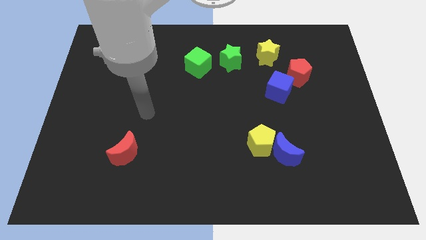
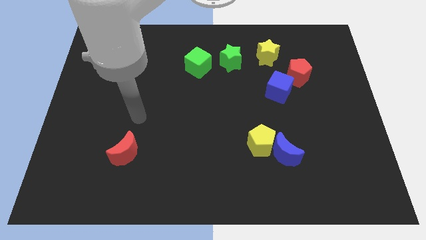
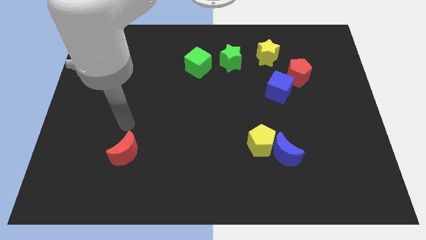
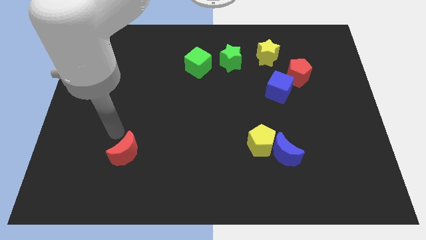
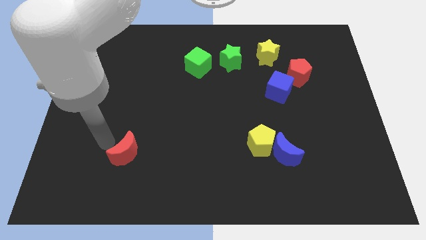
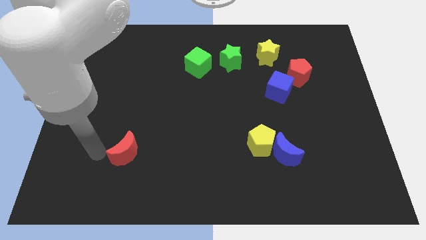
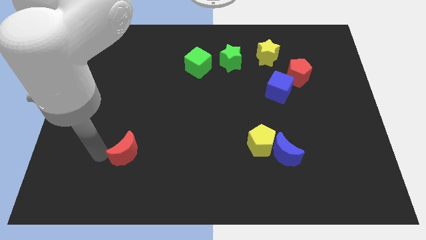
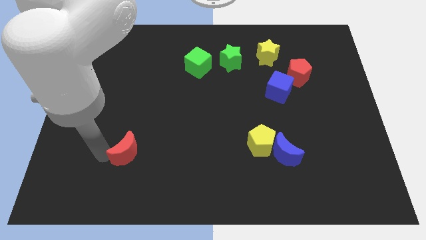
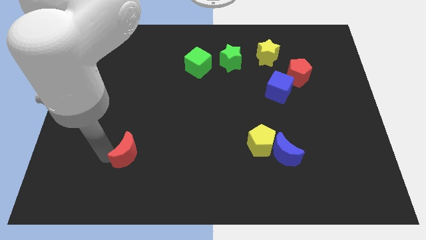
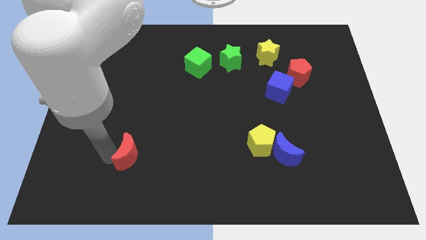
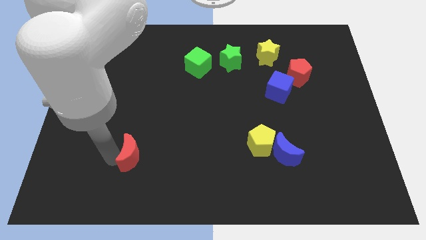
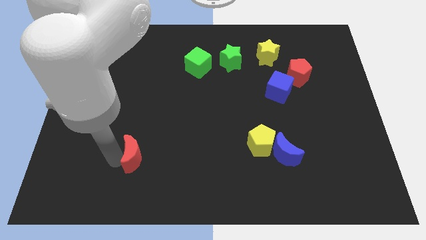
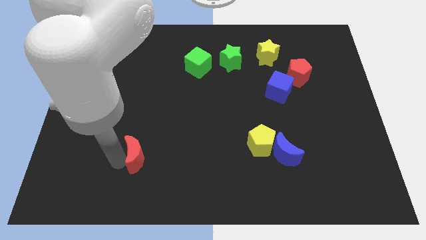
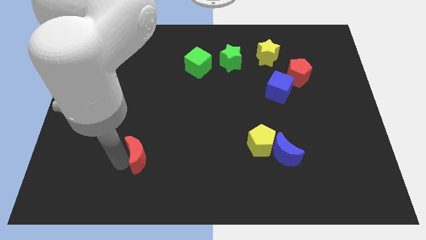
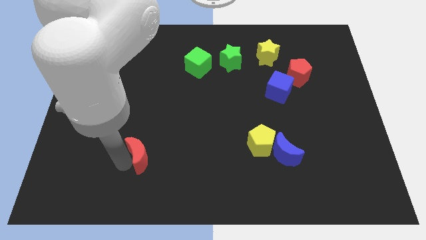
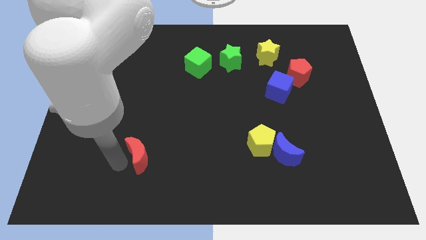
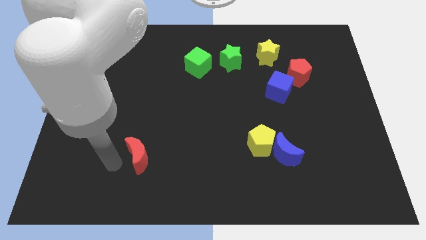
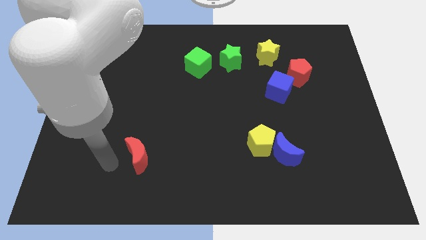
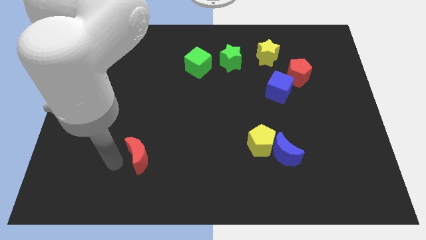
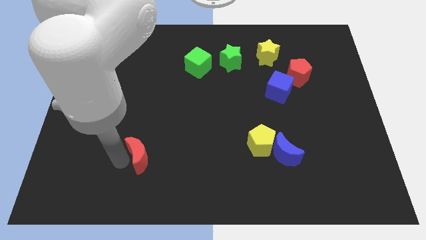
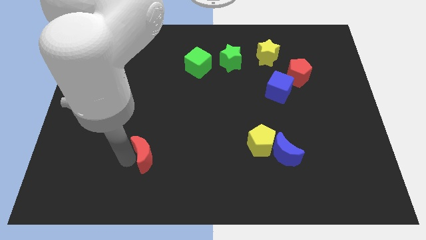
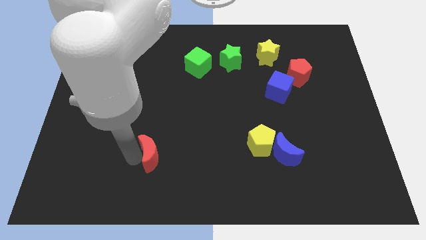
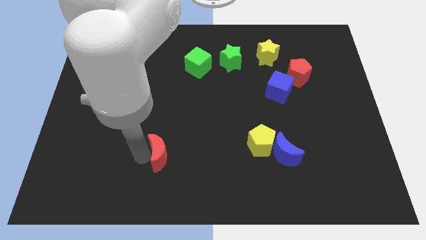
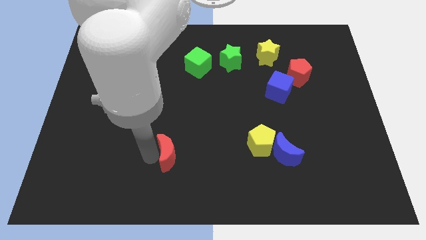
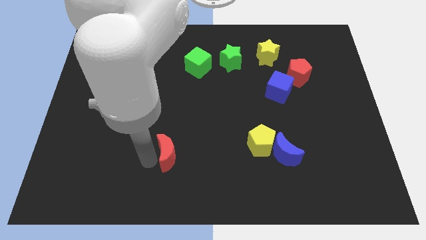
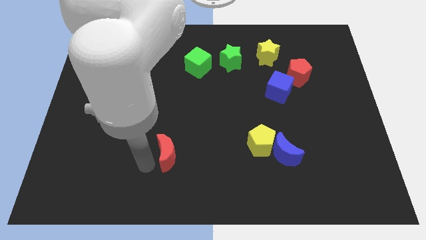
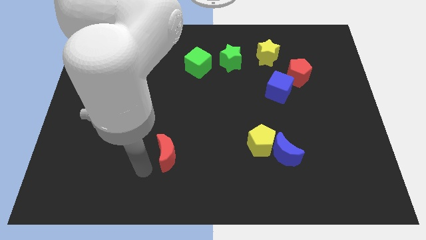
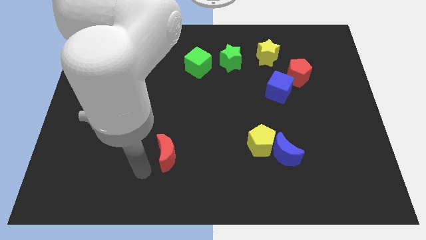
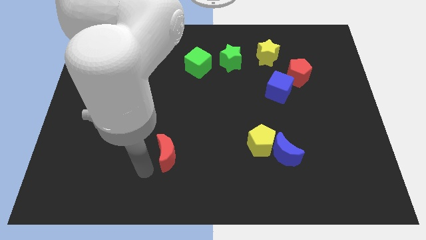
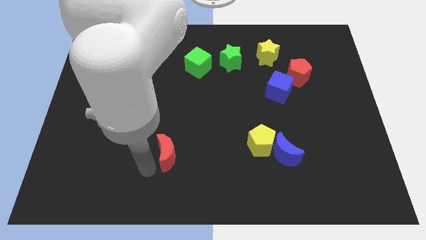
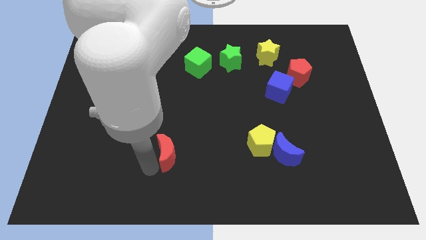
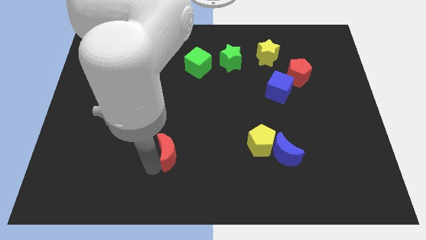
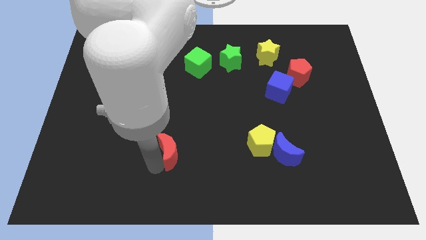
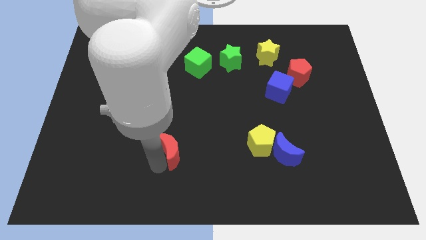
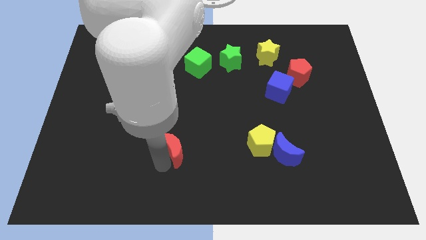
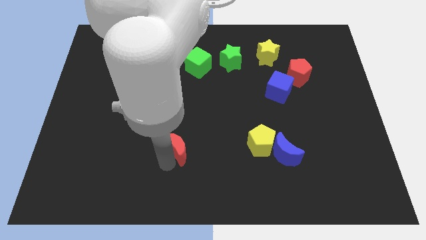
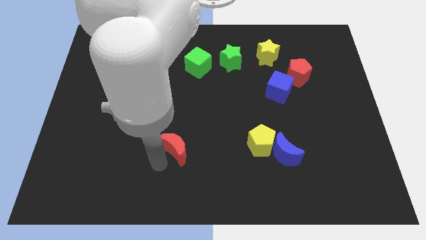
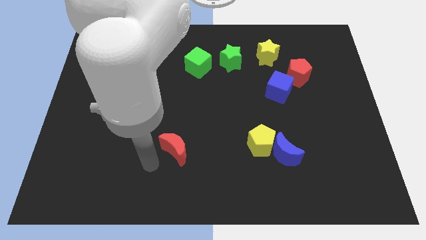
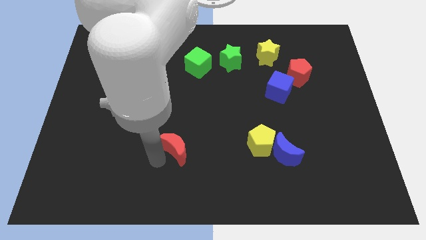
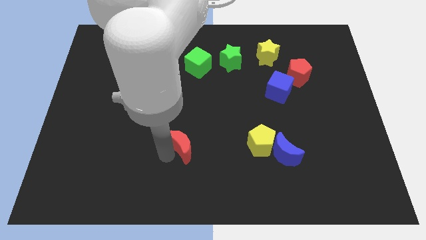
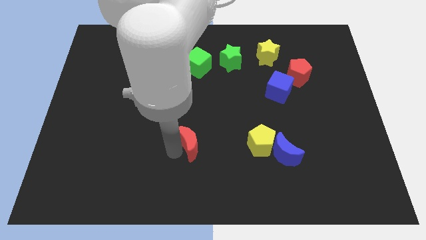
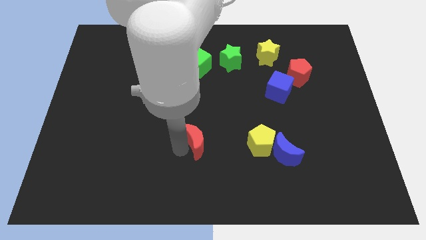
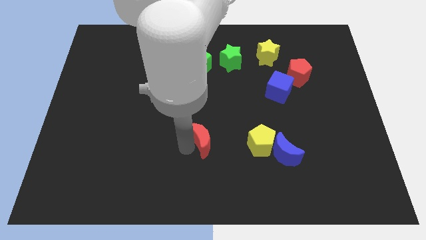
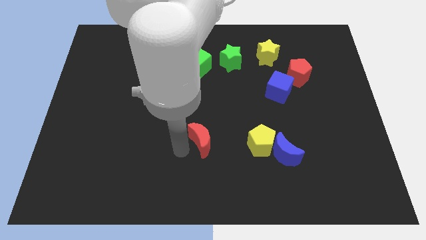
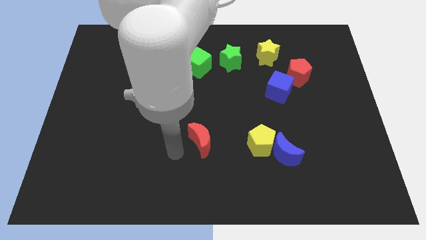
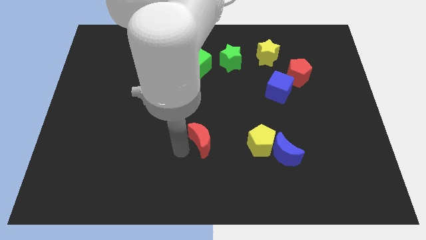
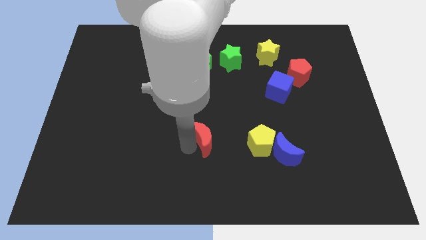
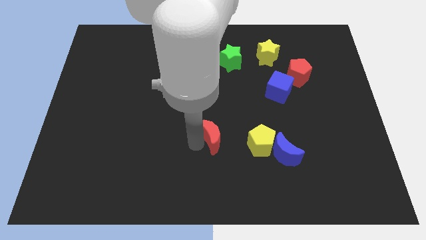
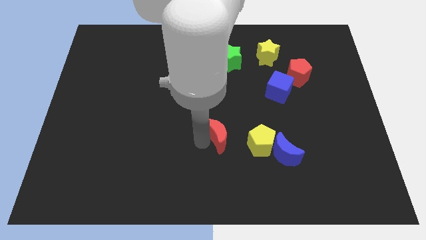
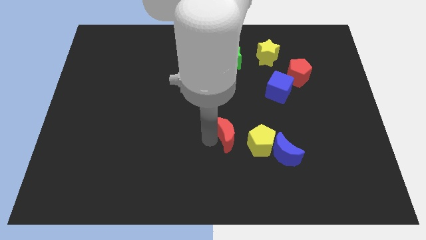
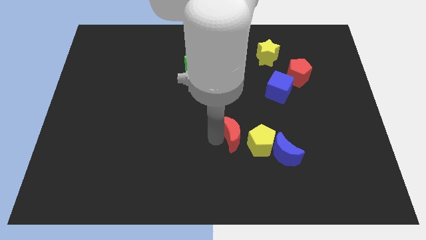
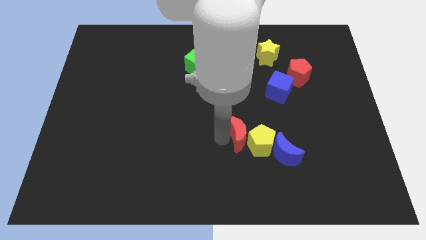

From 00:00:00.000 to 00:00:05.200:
slide the red moon diagonally up and to the left of the blue moon

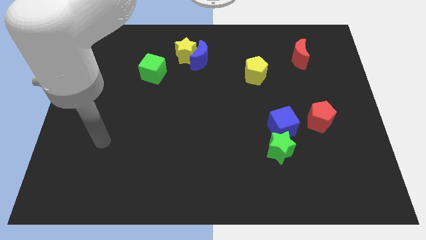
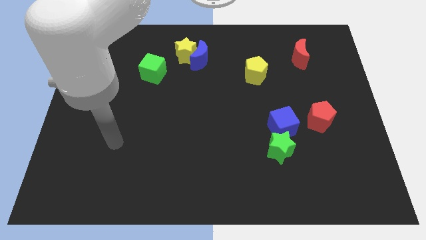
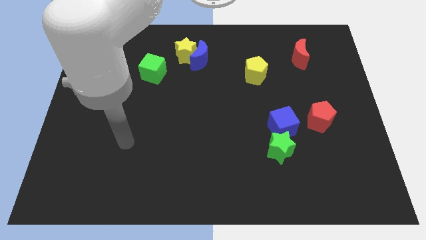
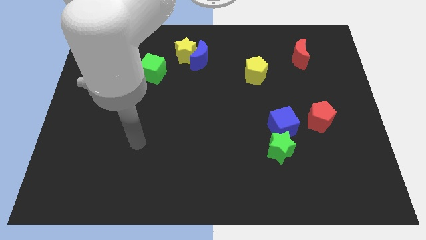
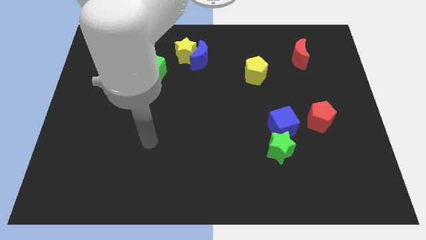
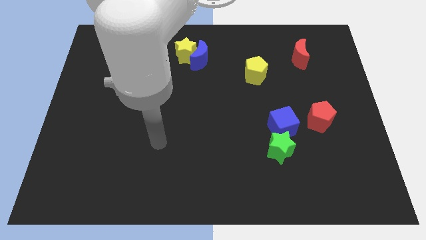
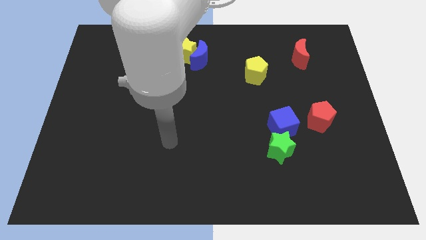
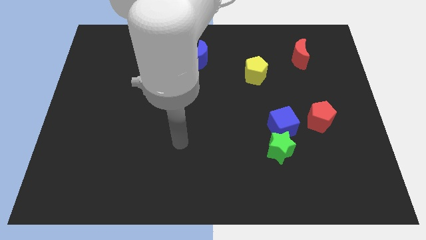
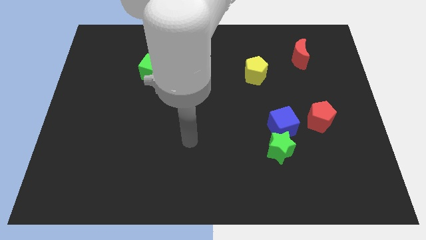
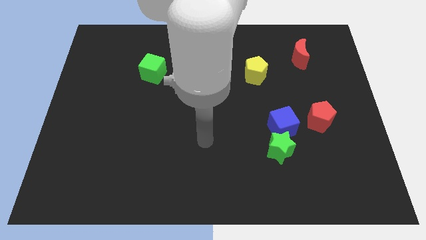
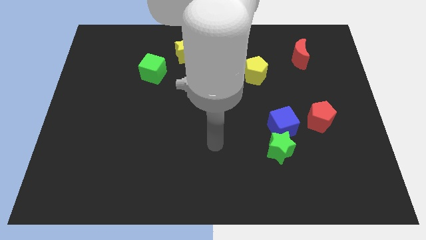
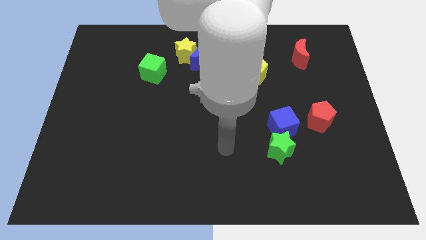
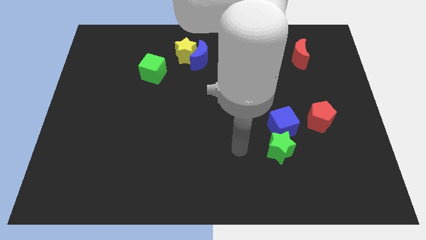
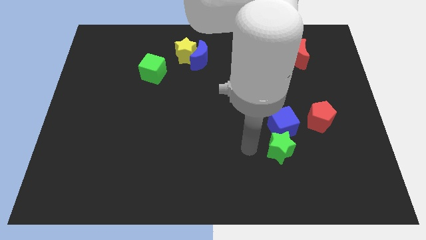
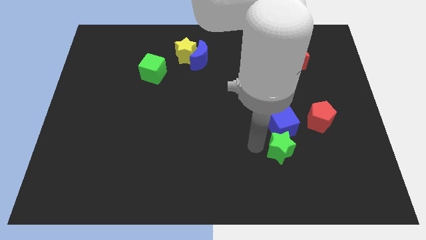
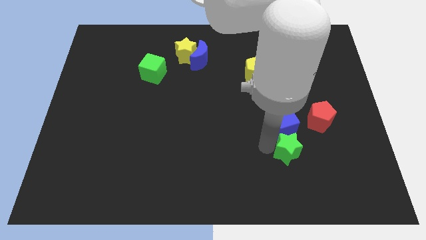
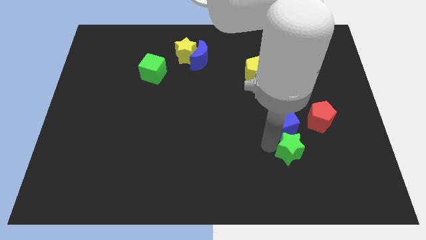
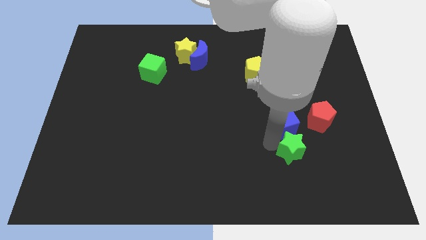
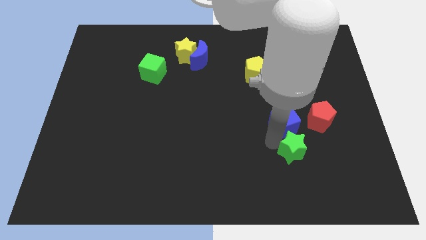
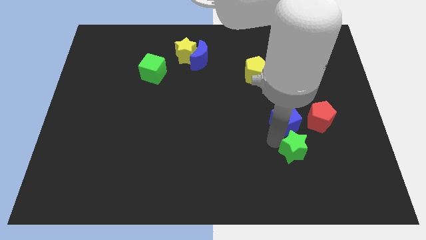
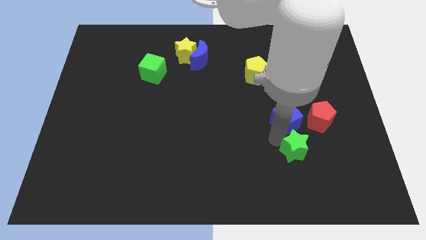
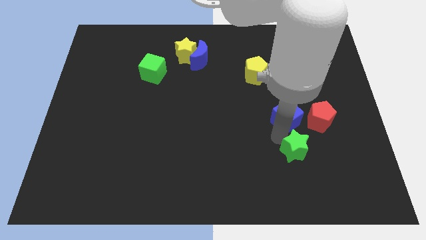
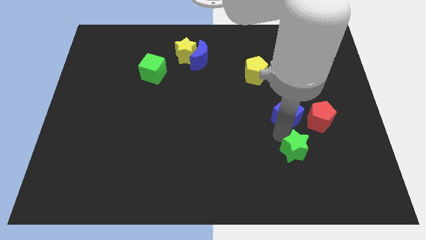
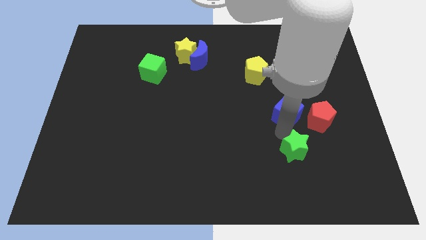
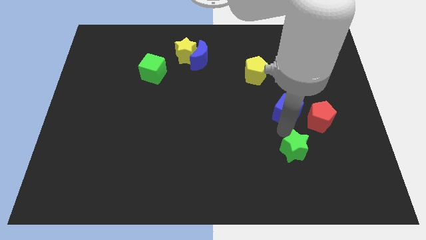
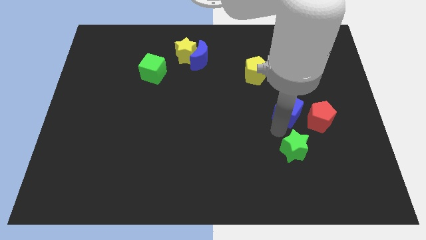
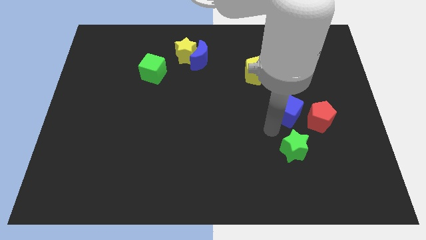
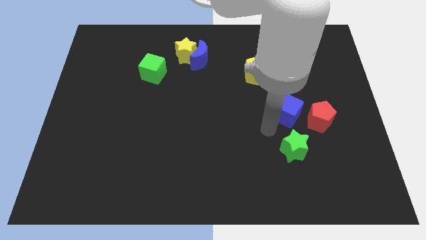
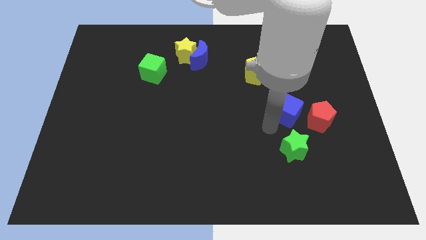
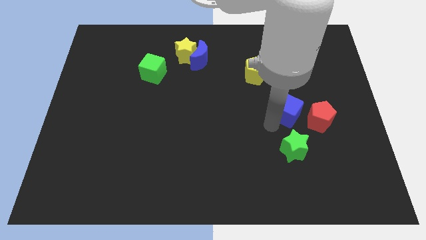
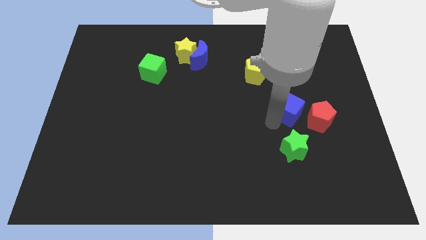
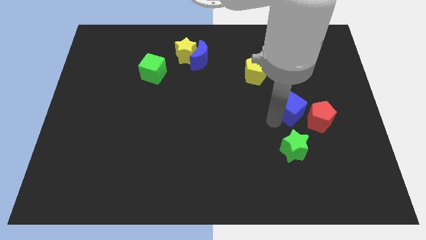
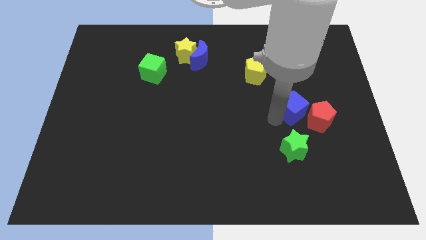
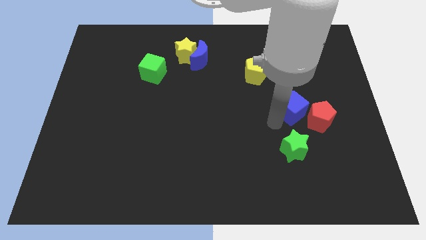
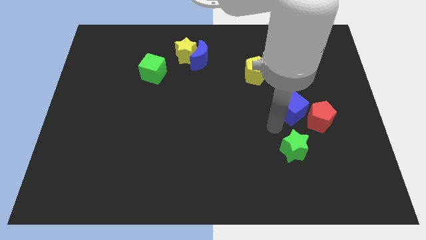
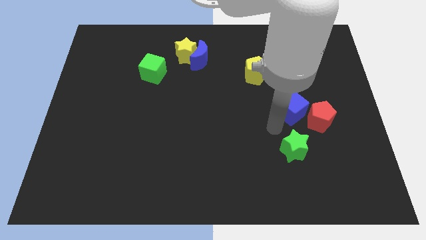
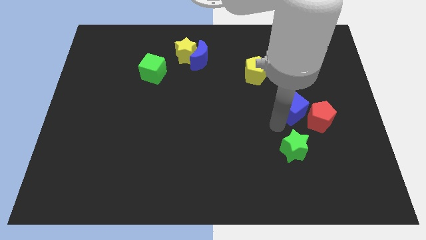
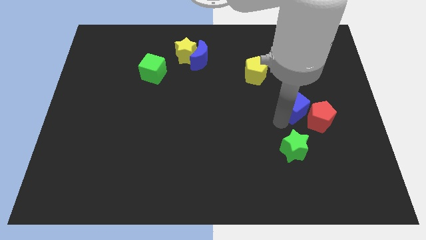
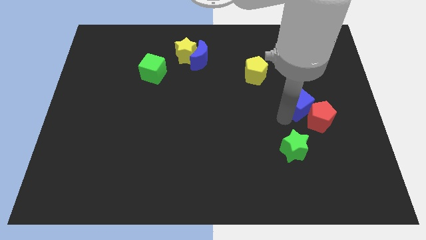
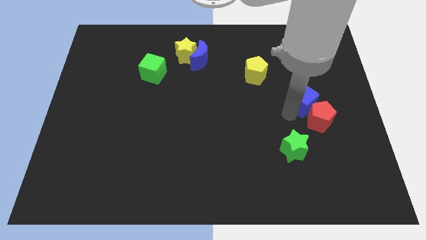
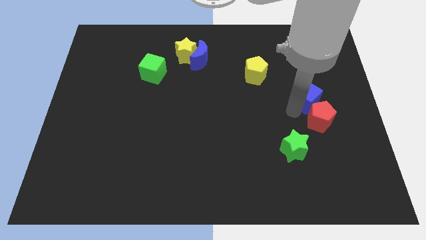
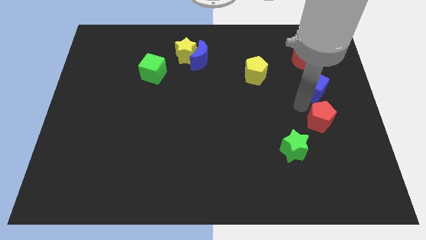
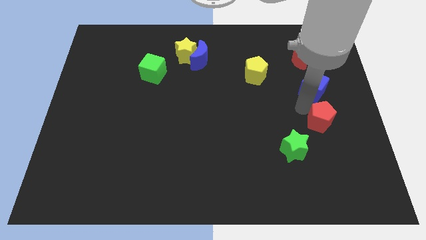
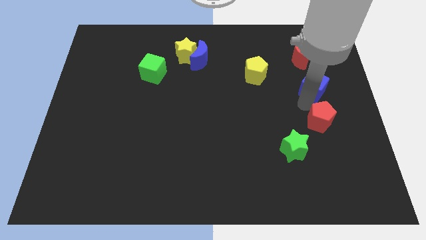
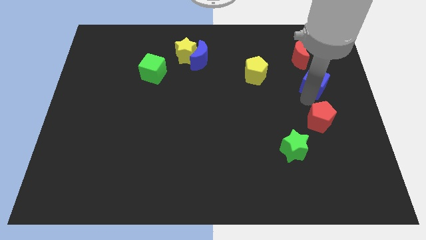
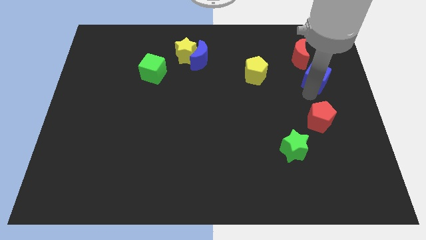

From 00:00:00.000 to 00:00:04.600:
slide the blue cube diagonally down and to the right of the red moon
